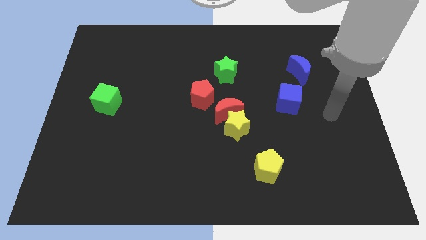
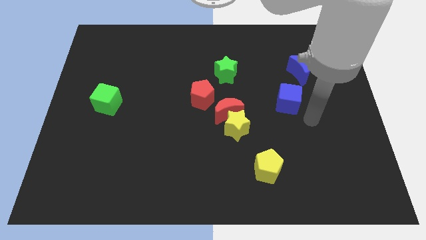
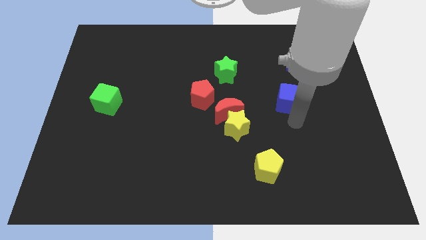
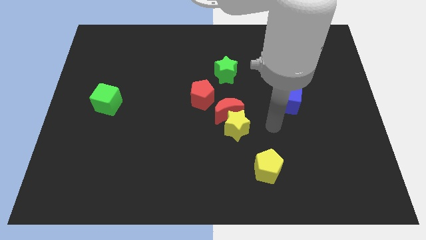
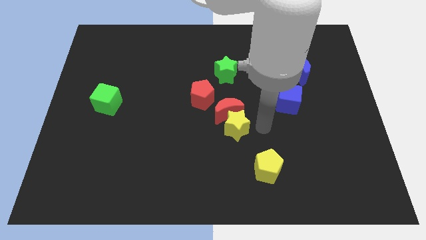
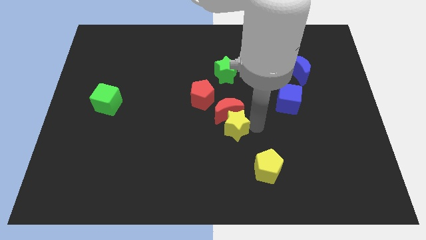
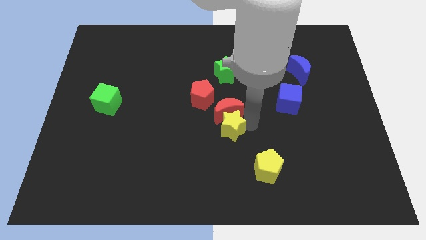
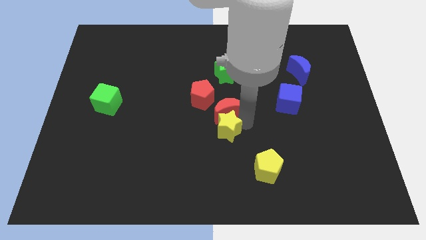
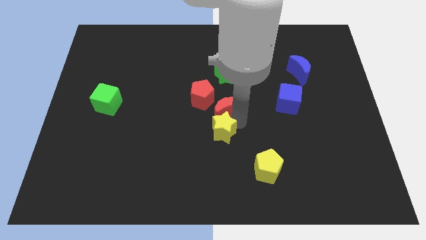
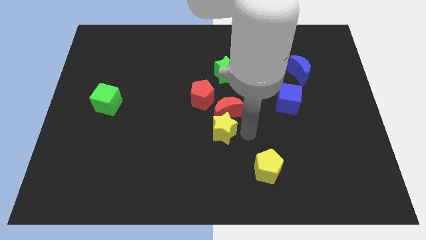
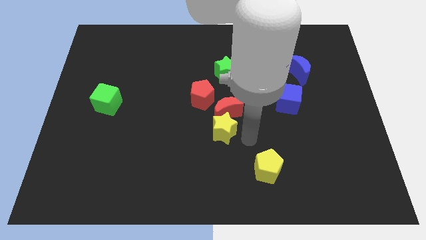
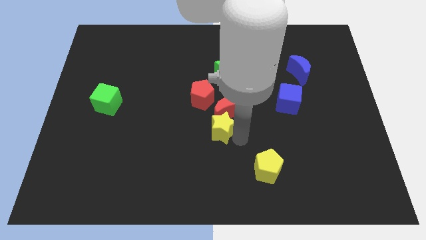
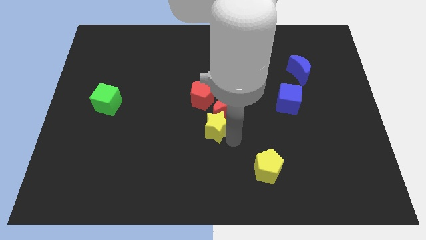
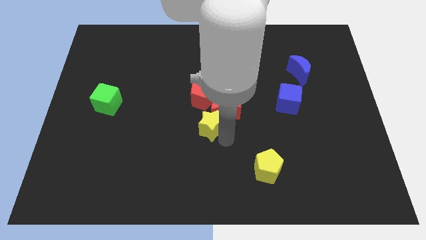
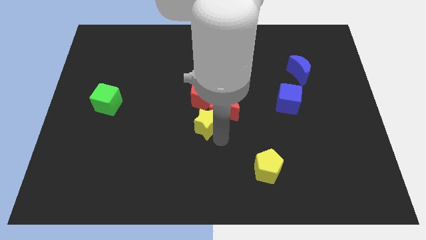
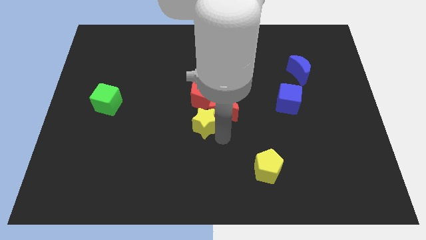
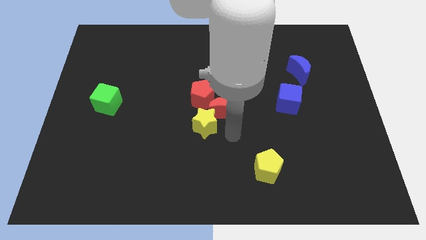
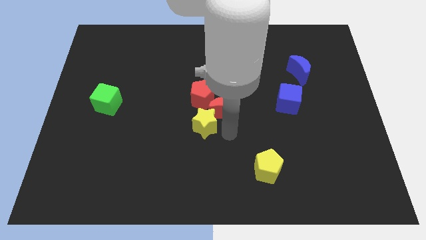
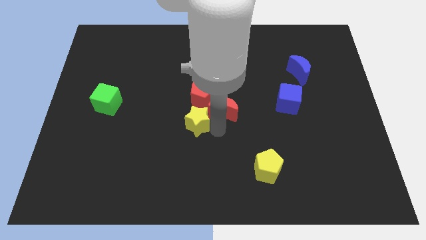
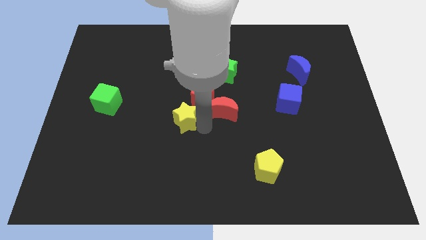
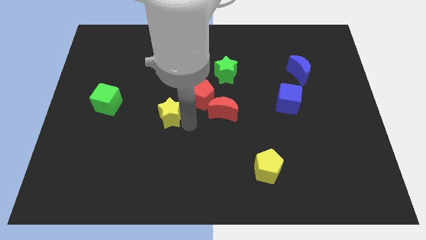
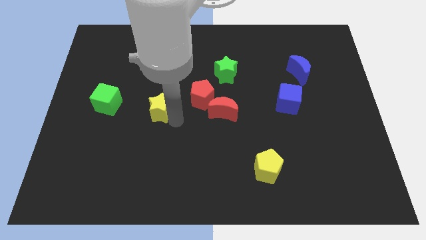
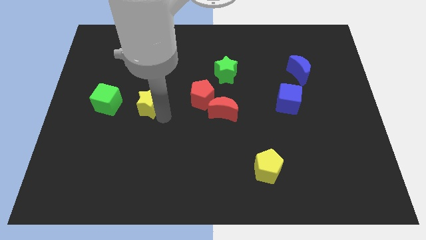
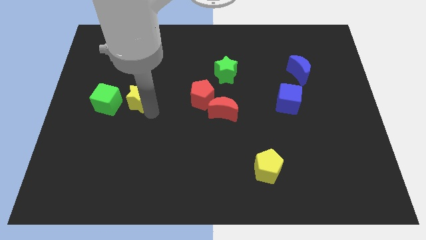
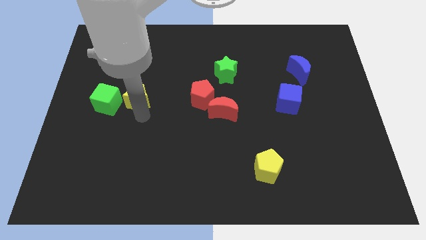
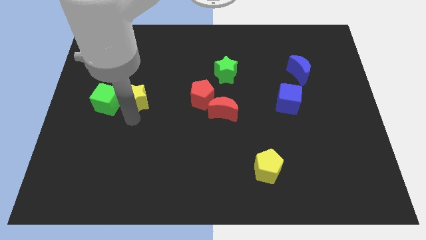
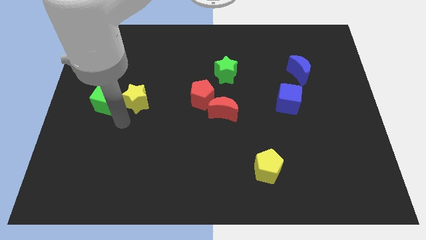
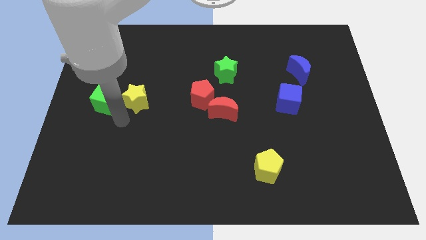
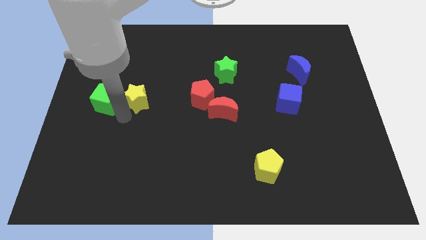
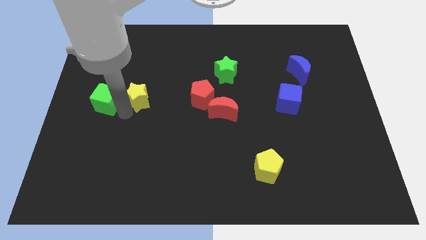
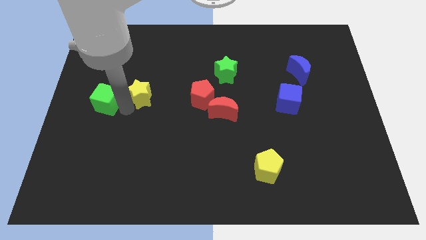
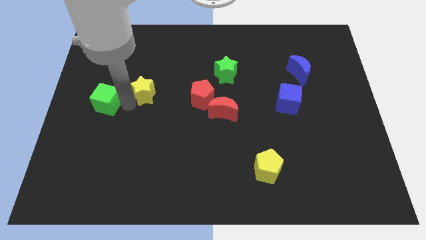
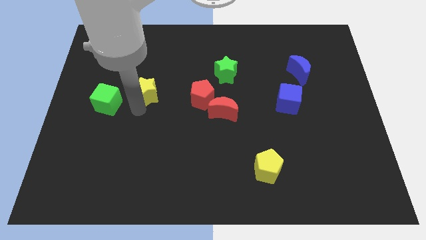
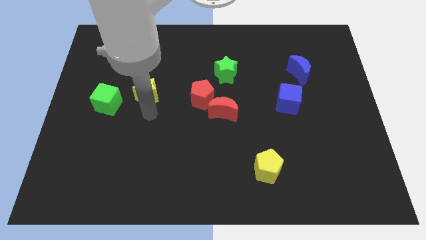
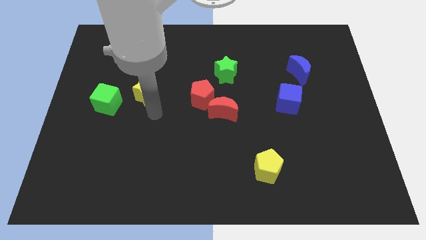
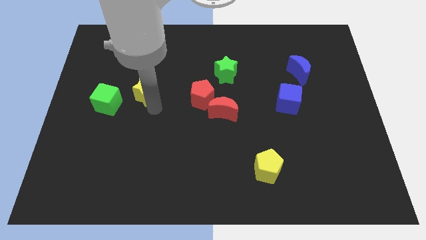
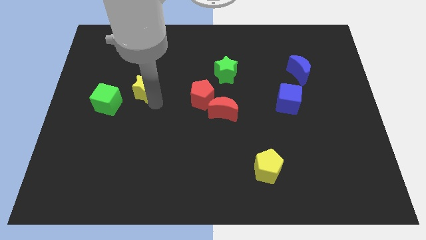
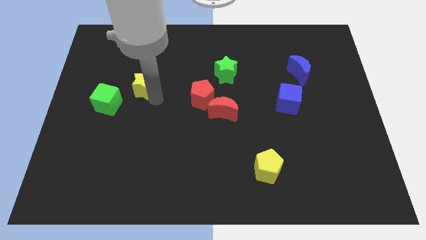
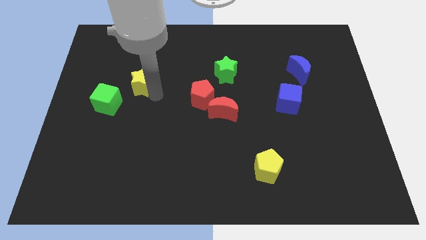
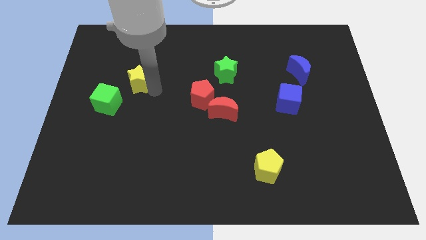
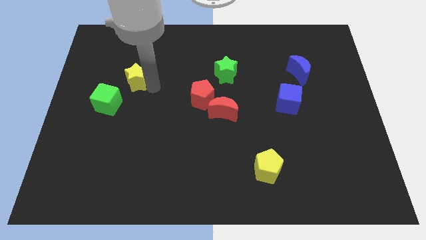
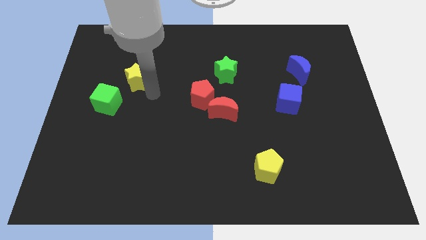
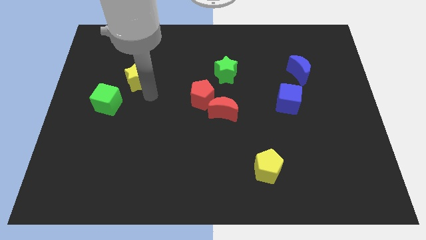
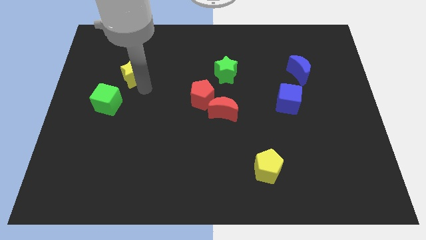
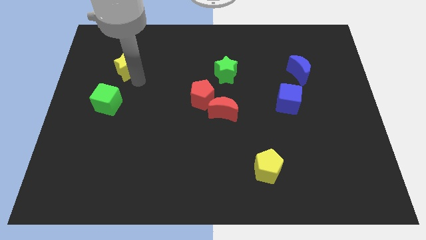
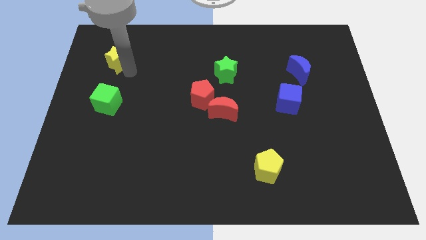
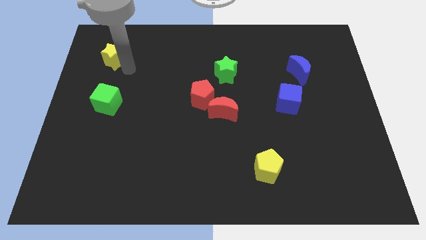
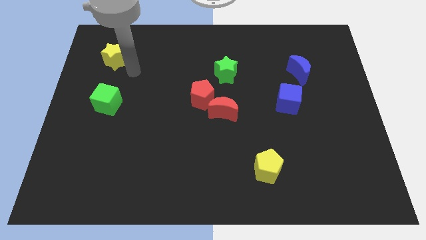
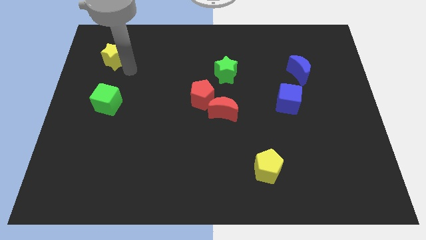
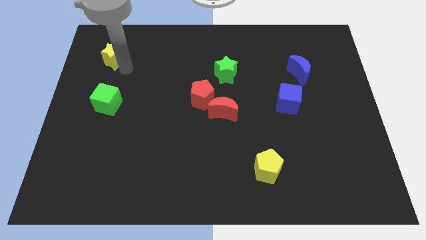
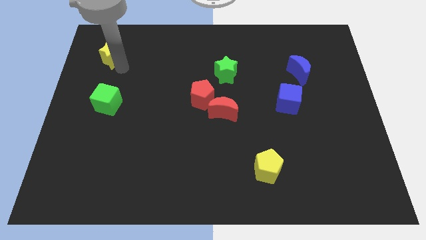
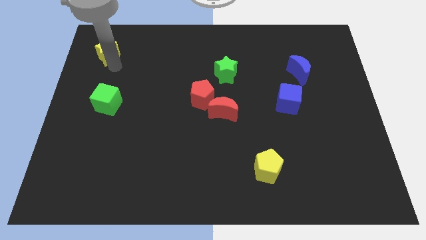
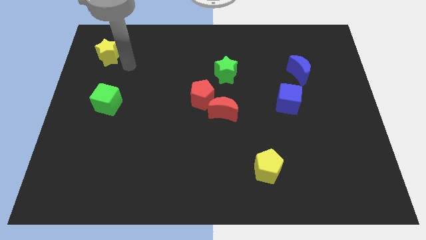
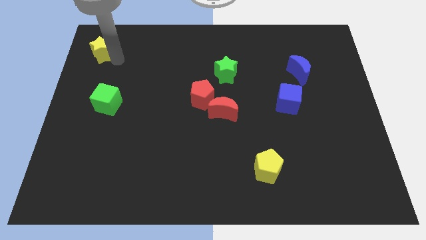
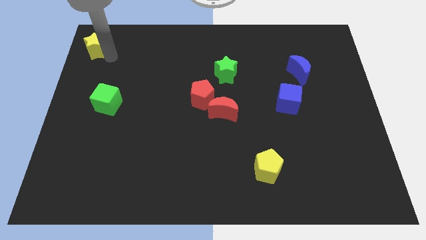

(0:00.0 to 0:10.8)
put the yellow star to the top left

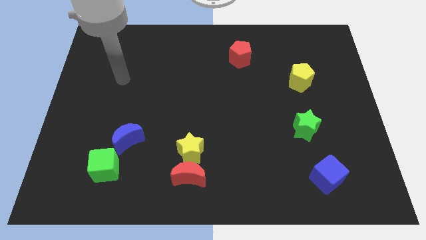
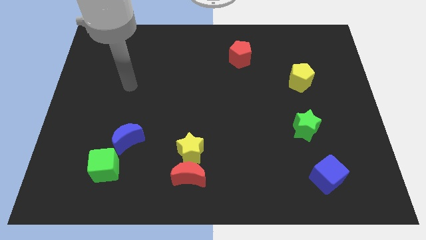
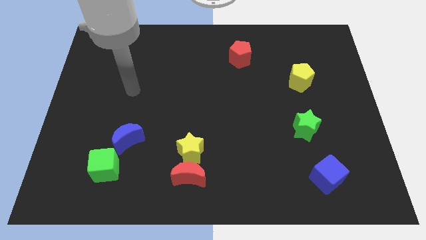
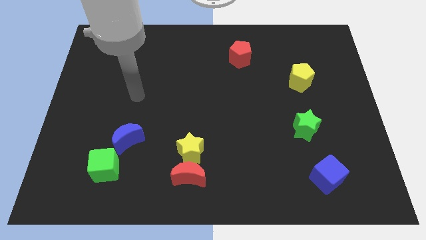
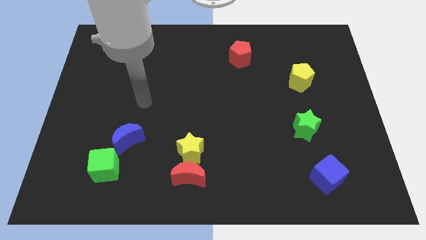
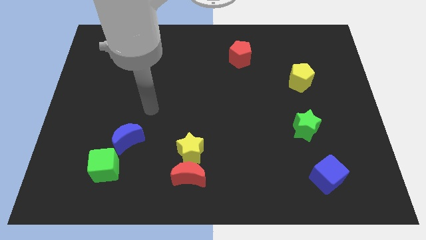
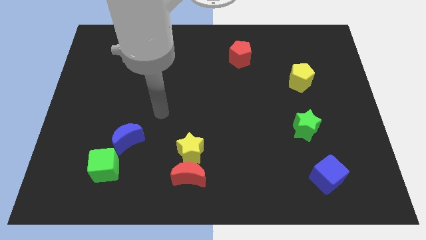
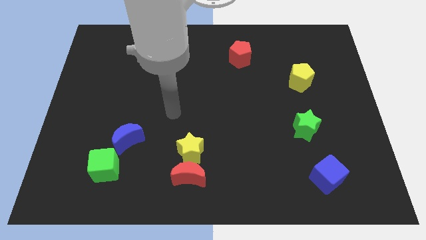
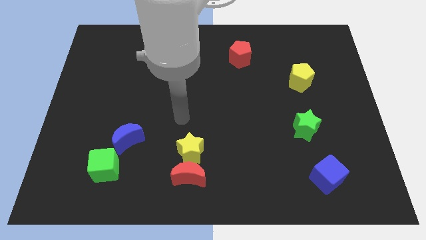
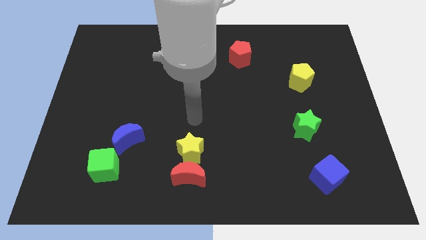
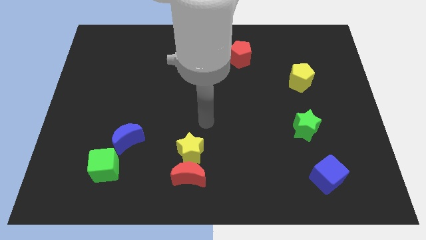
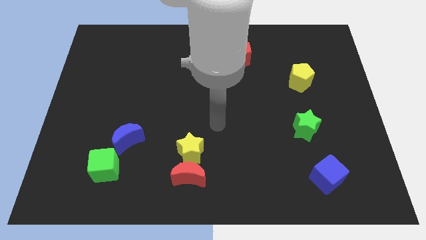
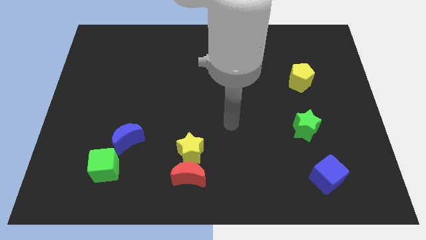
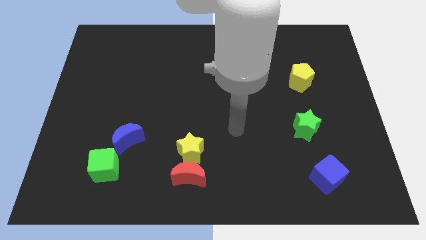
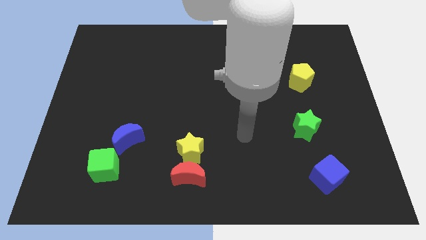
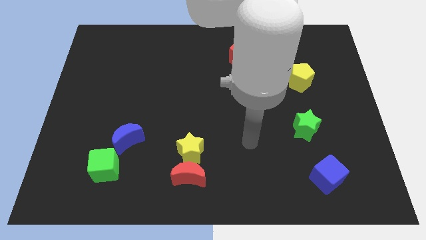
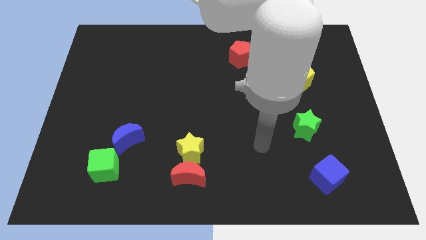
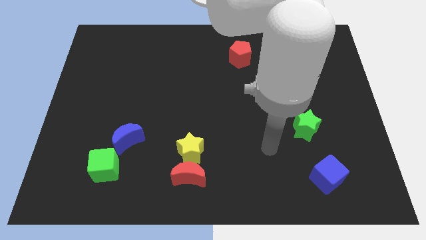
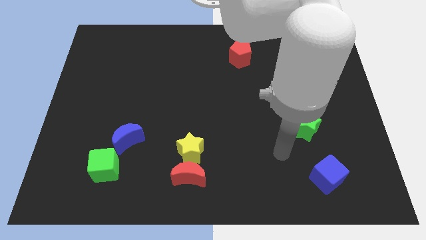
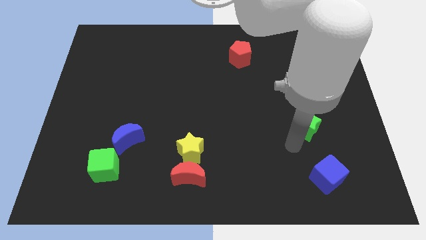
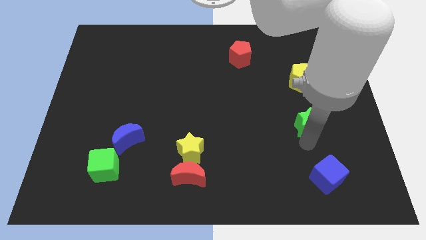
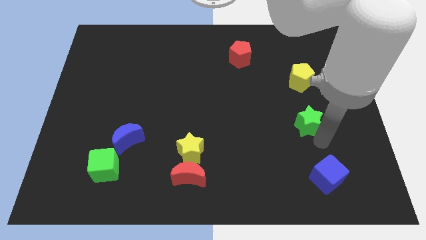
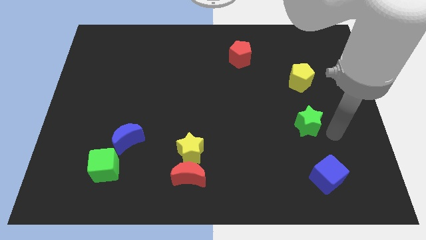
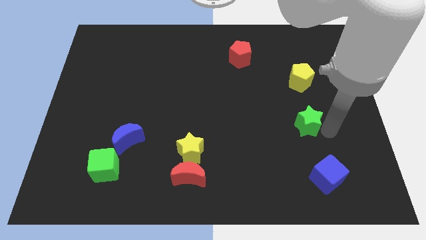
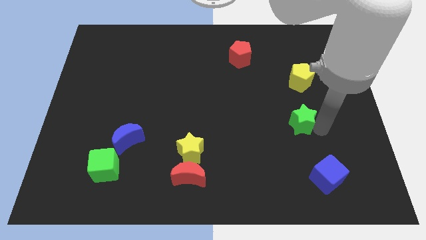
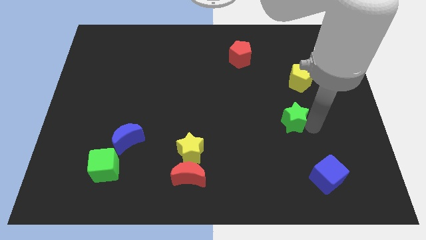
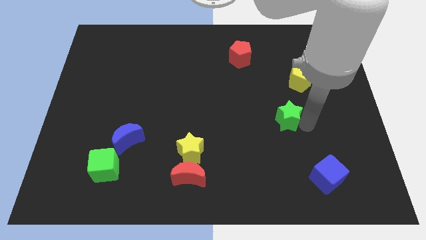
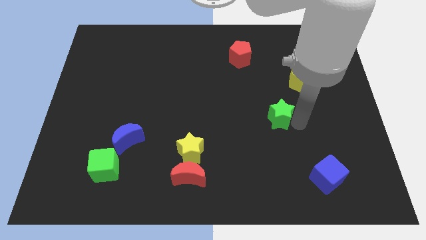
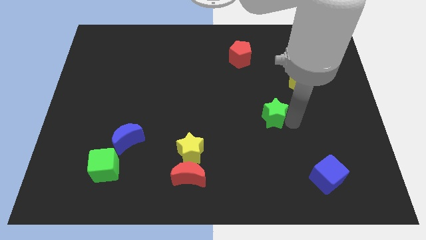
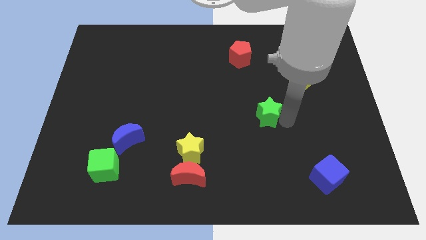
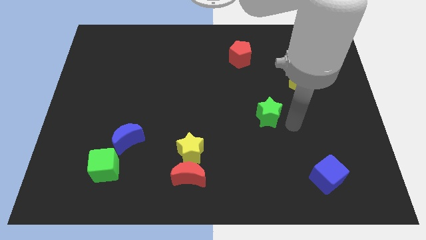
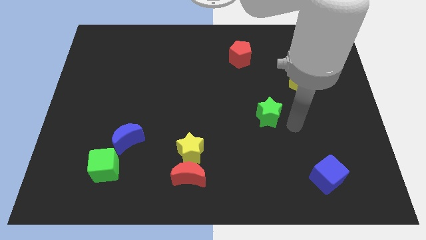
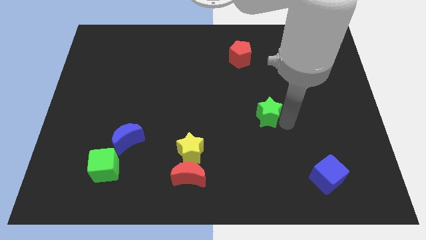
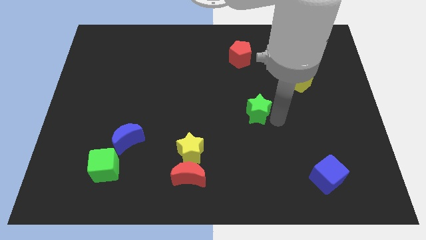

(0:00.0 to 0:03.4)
put the green star to the center of the board
